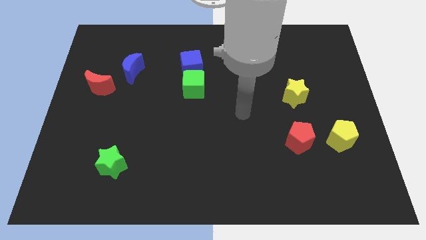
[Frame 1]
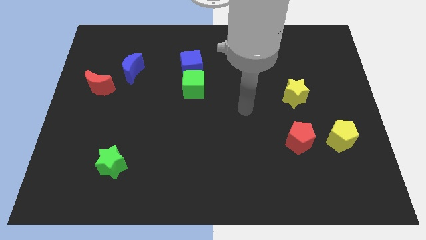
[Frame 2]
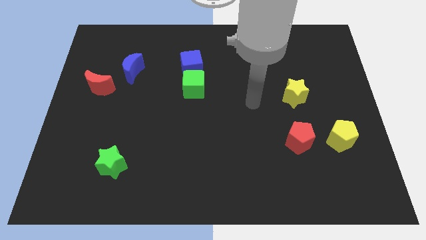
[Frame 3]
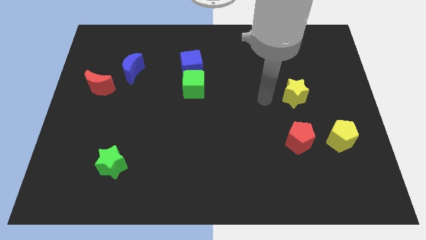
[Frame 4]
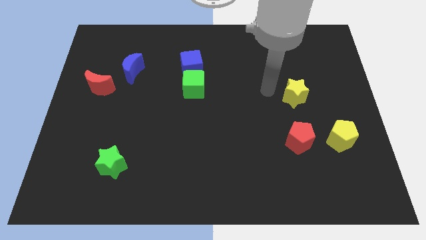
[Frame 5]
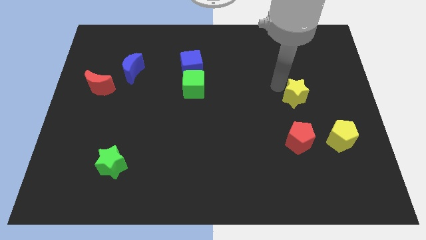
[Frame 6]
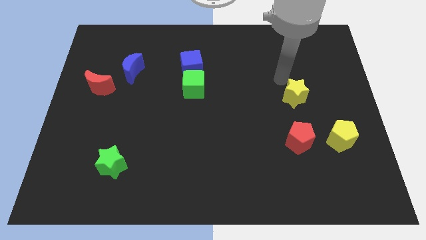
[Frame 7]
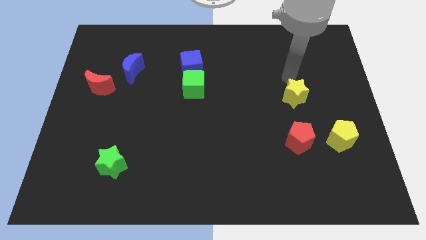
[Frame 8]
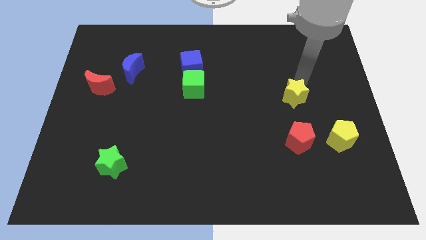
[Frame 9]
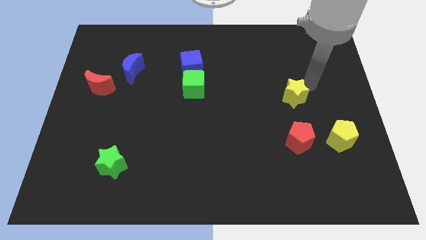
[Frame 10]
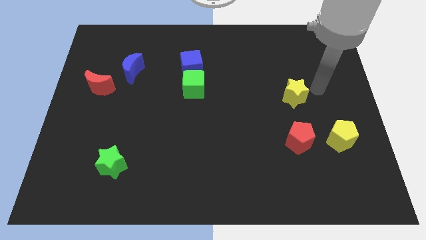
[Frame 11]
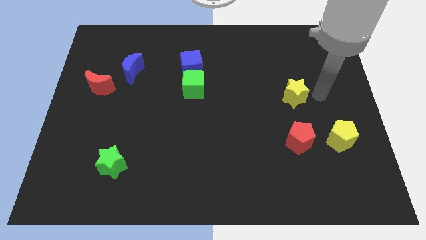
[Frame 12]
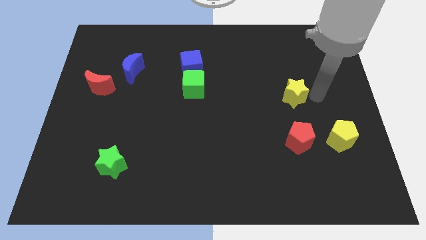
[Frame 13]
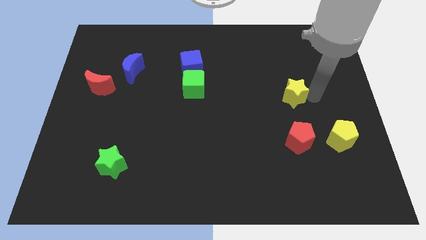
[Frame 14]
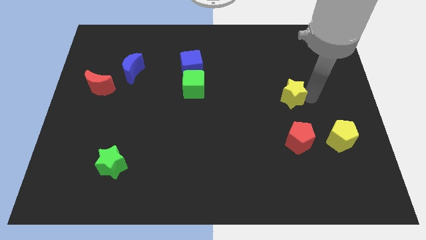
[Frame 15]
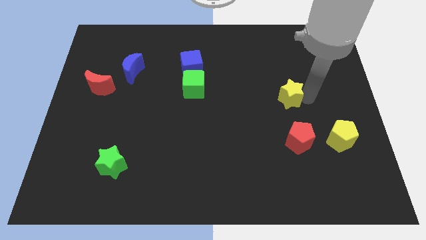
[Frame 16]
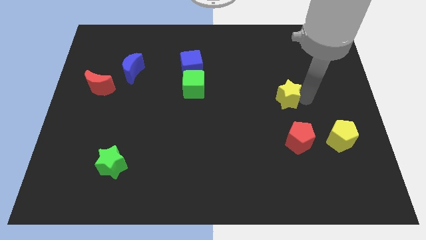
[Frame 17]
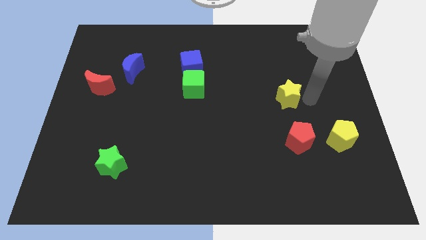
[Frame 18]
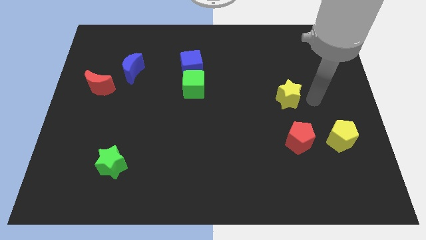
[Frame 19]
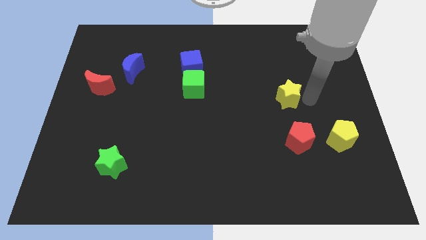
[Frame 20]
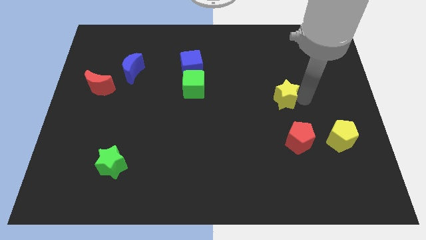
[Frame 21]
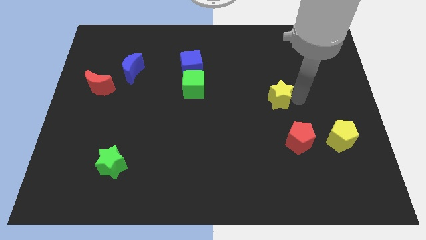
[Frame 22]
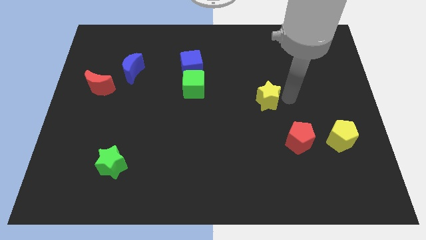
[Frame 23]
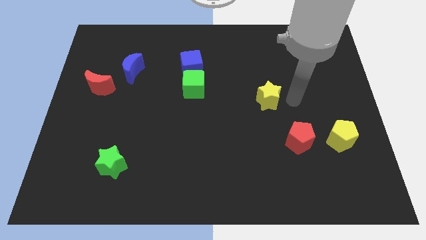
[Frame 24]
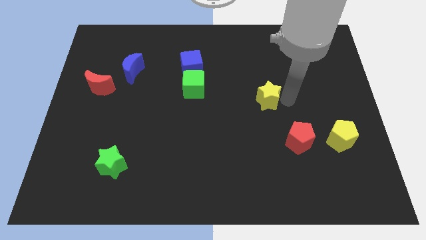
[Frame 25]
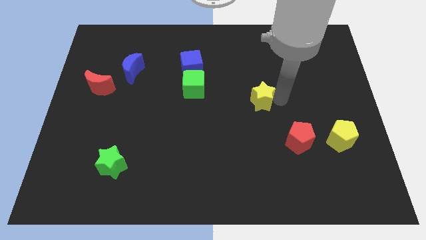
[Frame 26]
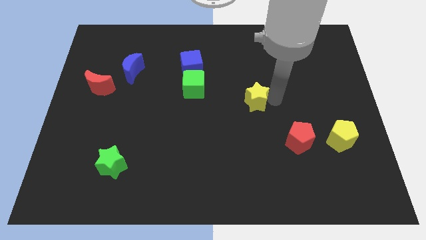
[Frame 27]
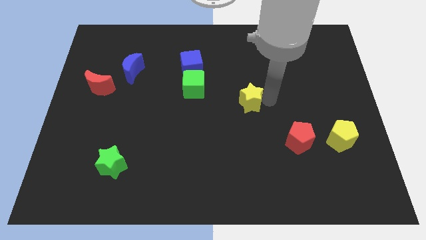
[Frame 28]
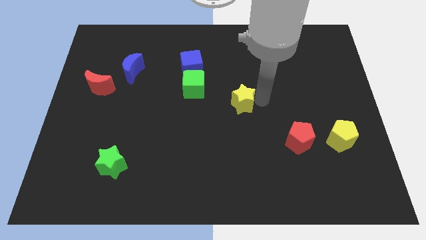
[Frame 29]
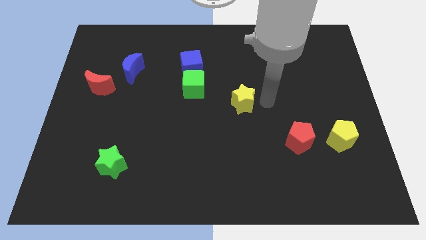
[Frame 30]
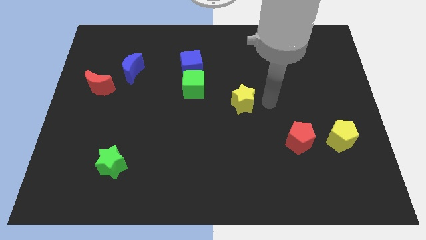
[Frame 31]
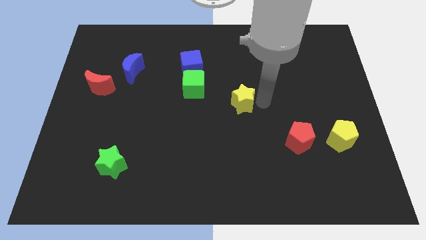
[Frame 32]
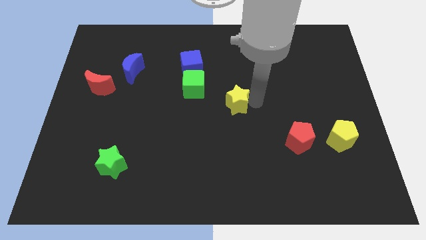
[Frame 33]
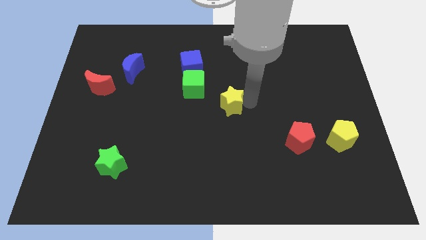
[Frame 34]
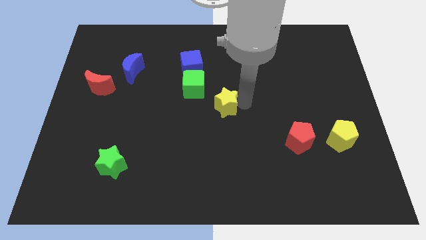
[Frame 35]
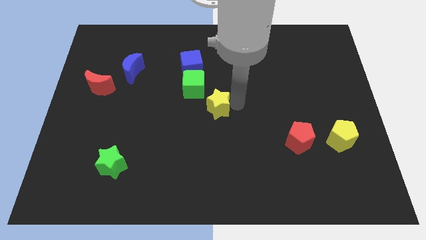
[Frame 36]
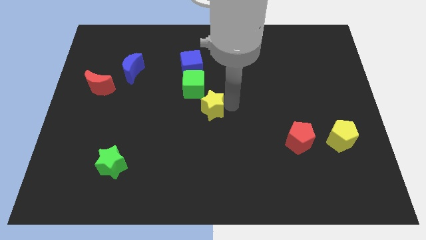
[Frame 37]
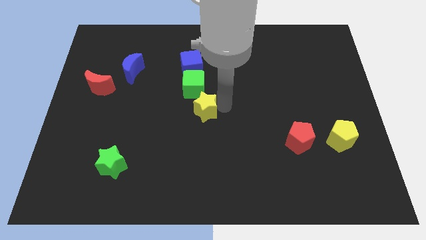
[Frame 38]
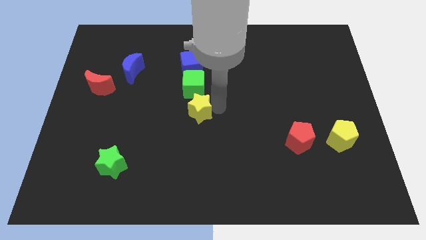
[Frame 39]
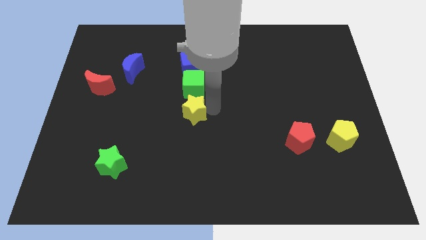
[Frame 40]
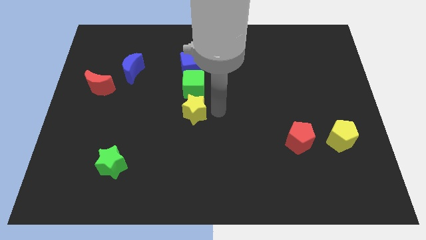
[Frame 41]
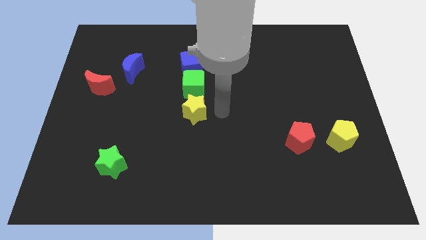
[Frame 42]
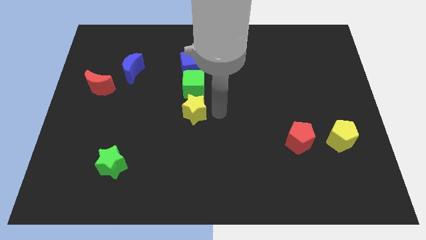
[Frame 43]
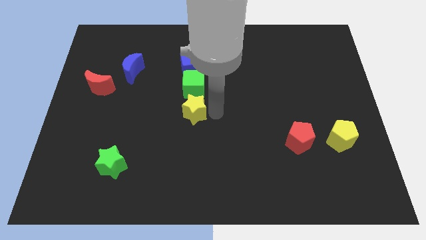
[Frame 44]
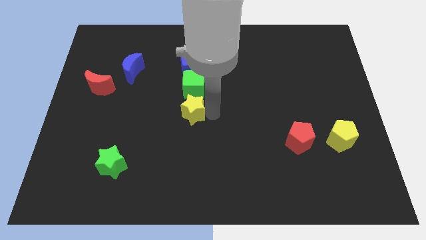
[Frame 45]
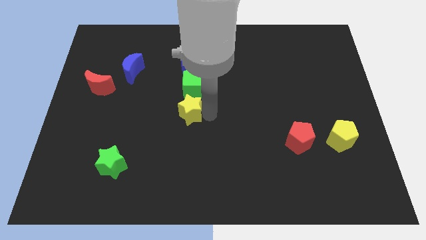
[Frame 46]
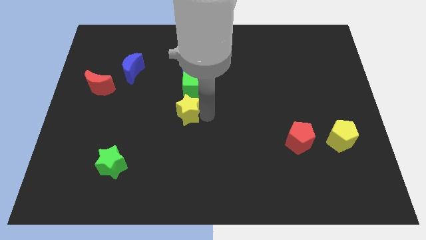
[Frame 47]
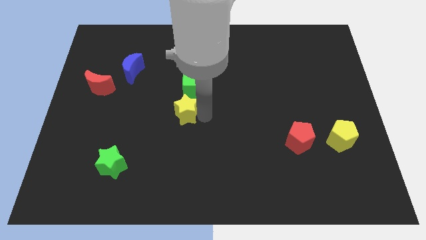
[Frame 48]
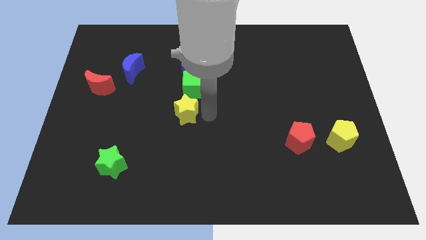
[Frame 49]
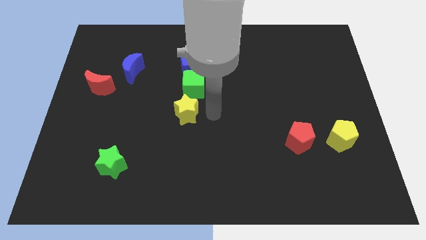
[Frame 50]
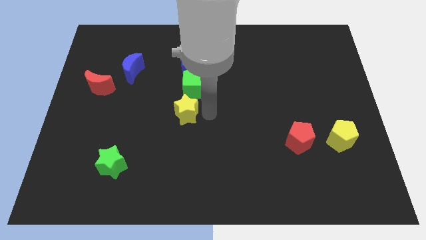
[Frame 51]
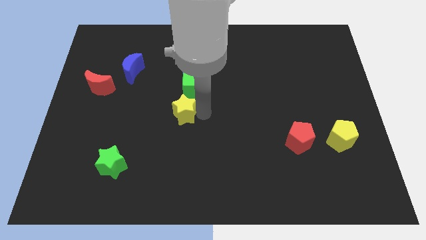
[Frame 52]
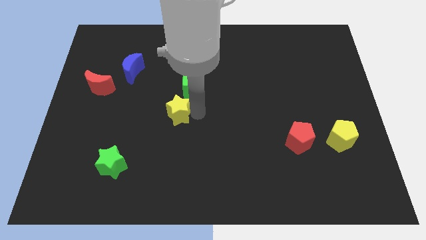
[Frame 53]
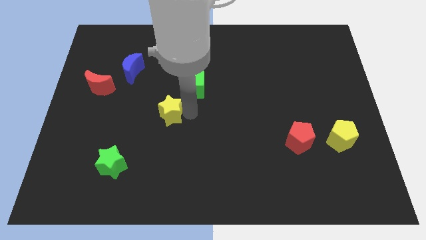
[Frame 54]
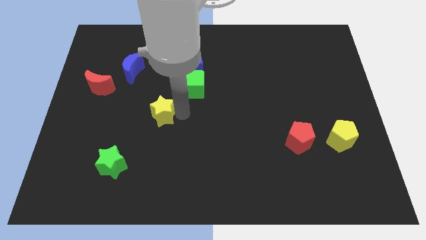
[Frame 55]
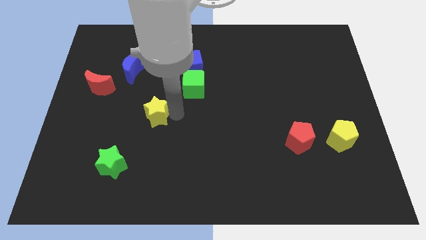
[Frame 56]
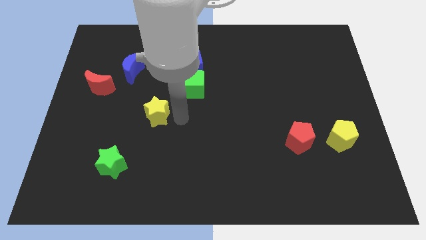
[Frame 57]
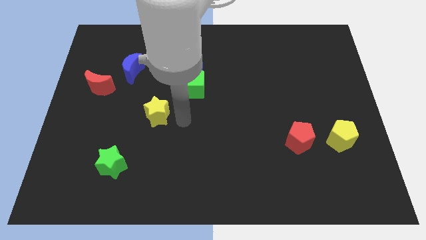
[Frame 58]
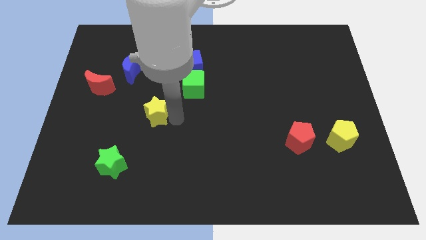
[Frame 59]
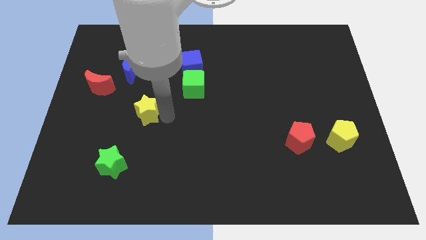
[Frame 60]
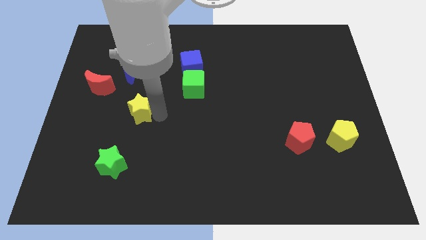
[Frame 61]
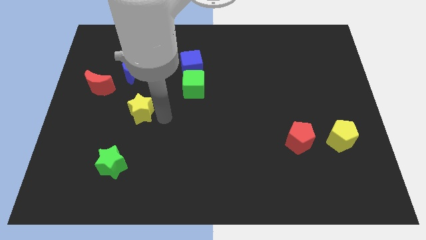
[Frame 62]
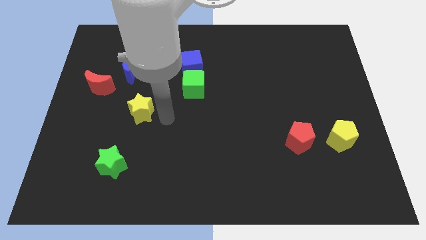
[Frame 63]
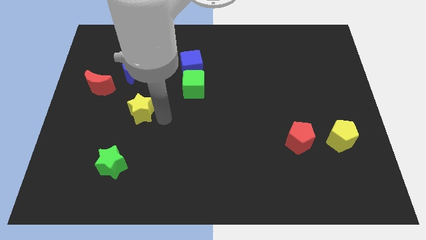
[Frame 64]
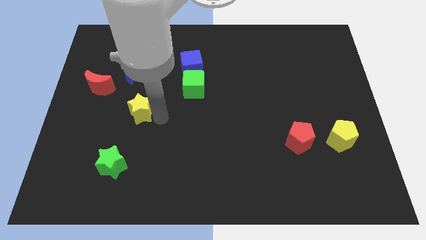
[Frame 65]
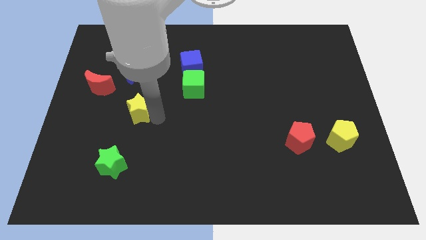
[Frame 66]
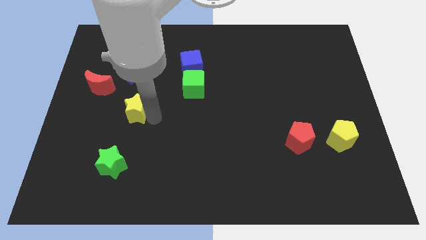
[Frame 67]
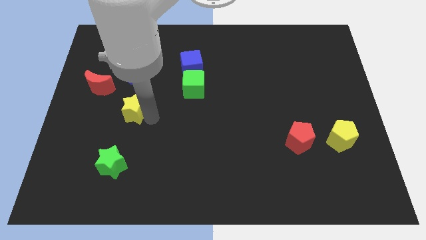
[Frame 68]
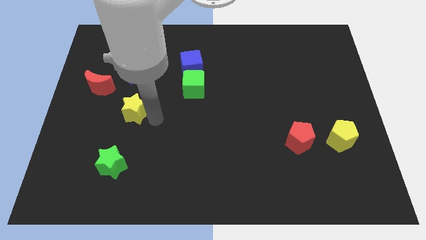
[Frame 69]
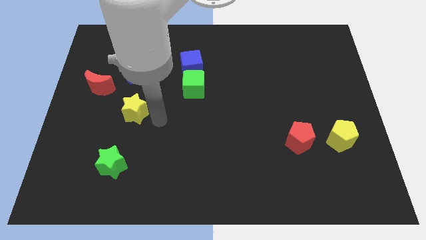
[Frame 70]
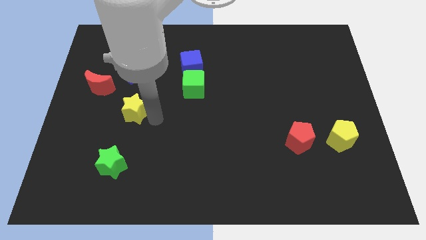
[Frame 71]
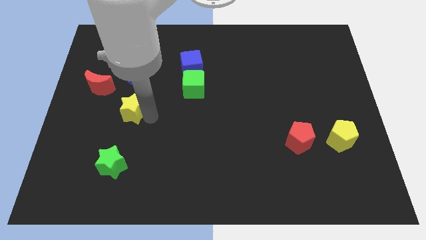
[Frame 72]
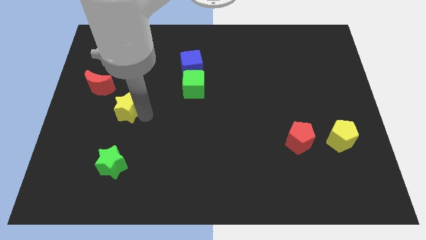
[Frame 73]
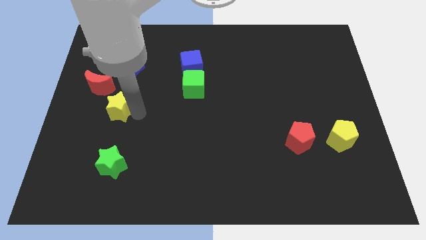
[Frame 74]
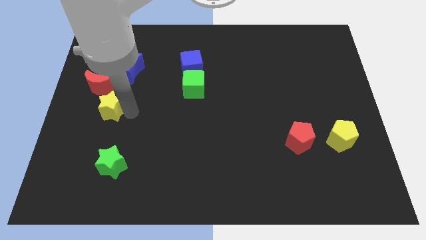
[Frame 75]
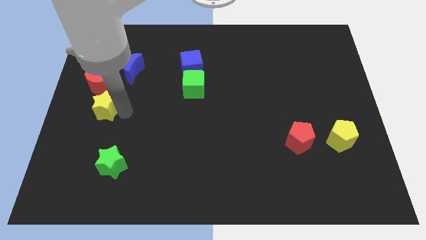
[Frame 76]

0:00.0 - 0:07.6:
slide the yellow star to the center left
